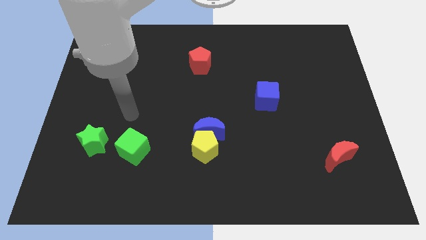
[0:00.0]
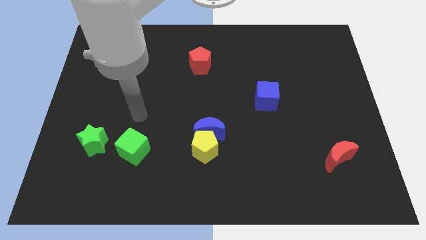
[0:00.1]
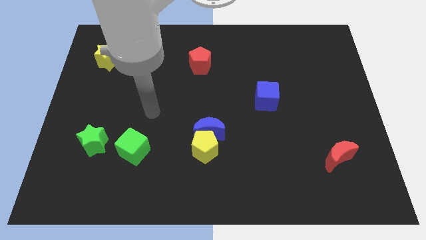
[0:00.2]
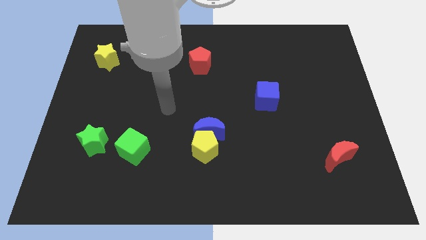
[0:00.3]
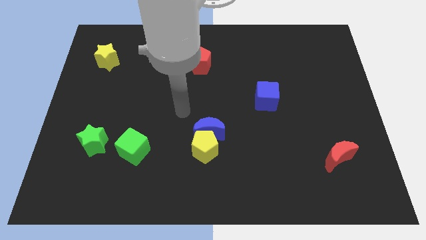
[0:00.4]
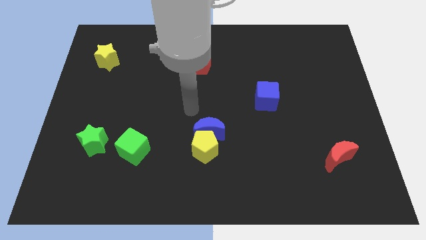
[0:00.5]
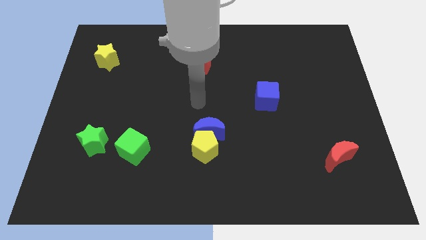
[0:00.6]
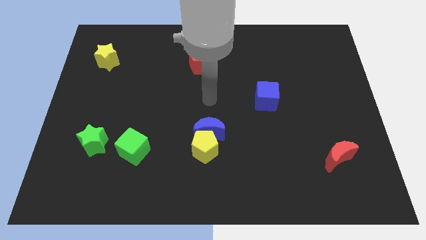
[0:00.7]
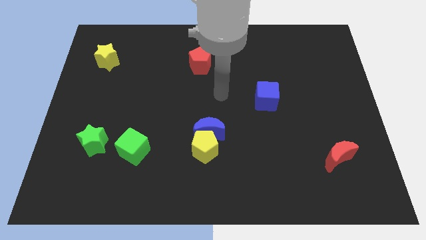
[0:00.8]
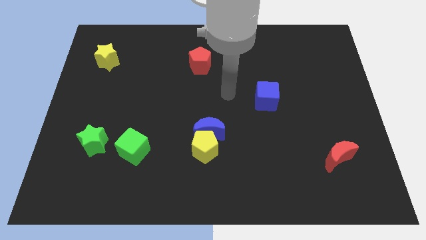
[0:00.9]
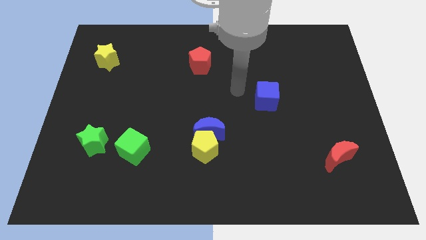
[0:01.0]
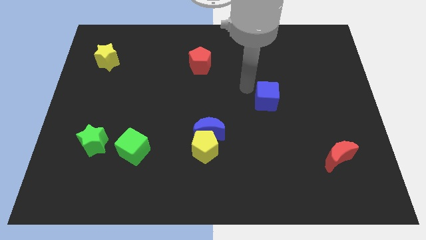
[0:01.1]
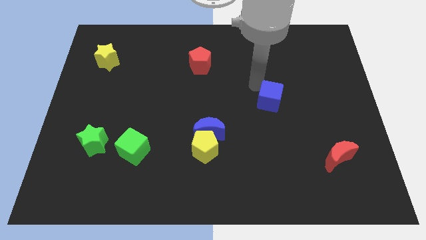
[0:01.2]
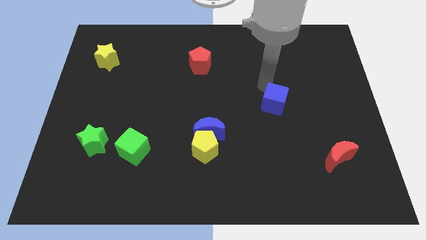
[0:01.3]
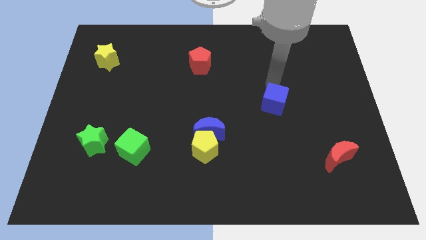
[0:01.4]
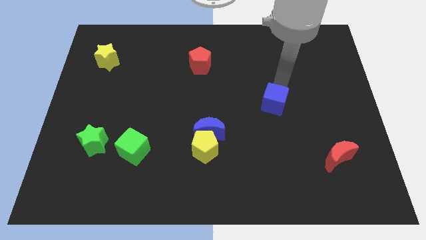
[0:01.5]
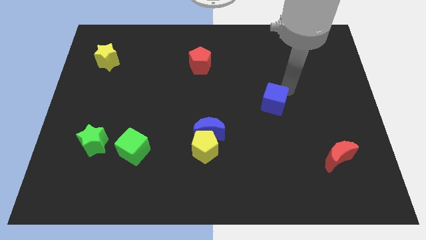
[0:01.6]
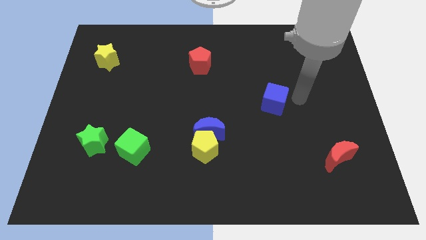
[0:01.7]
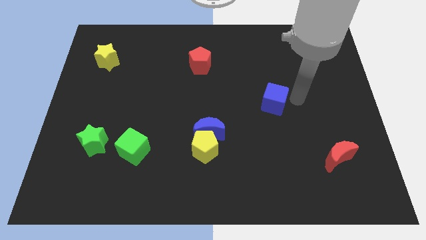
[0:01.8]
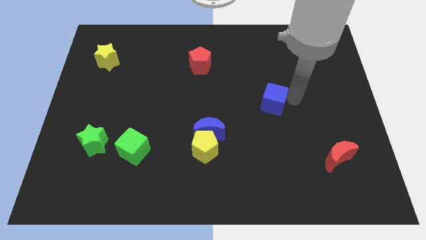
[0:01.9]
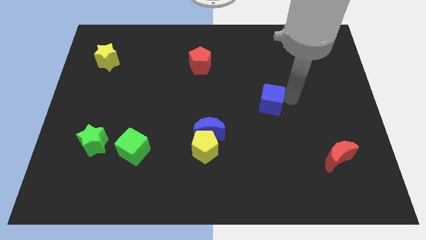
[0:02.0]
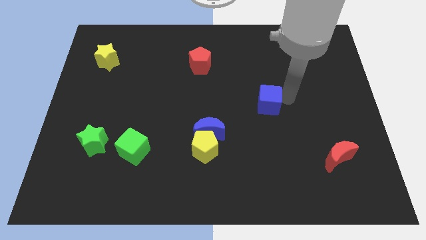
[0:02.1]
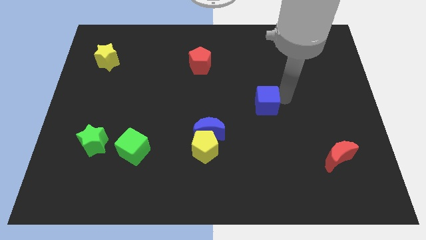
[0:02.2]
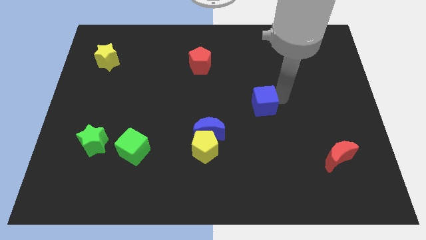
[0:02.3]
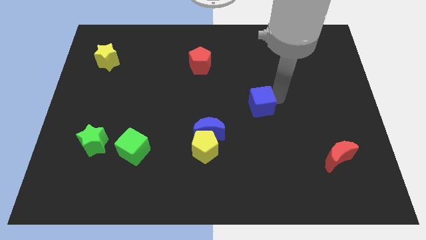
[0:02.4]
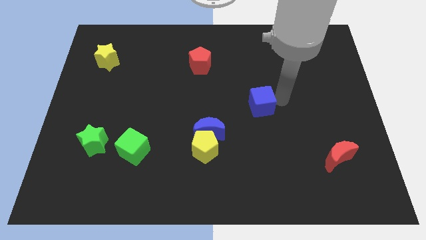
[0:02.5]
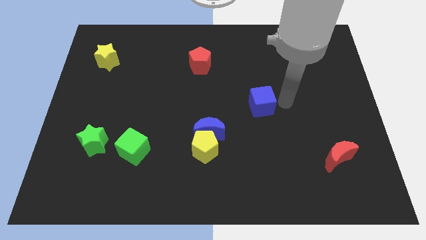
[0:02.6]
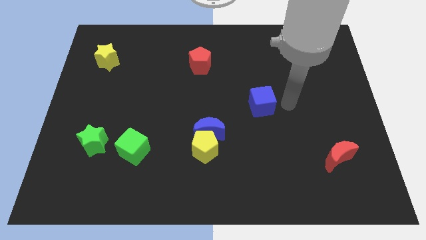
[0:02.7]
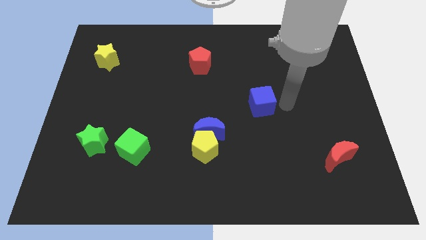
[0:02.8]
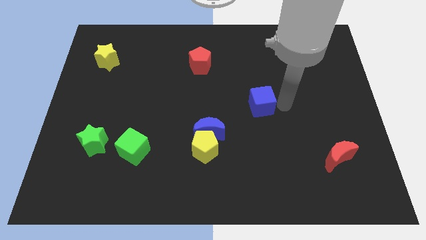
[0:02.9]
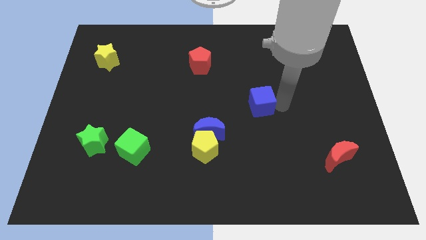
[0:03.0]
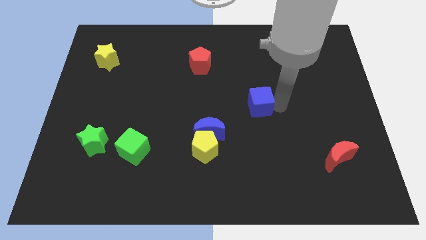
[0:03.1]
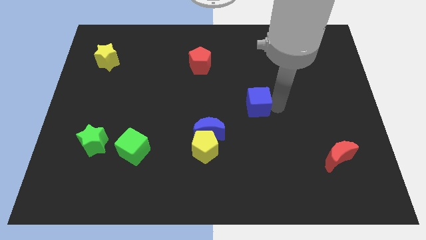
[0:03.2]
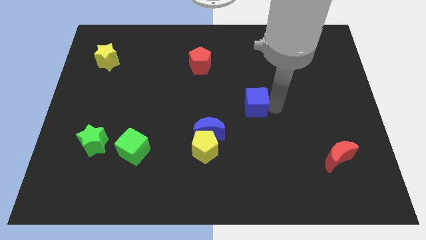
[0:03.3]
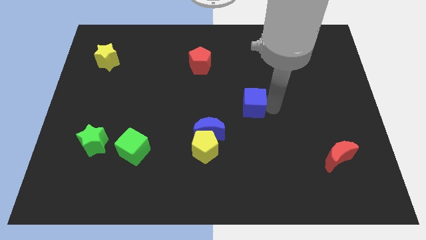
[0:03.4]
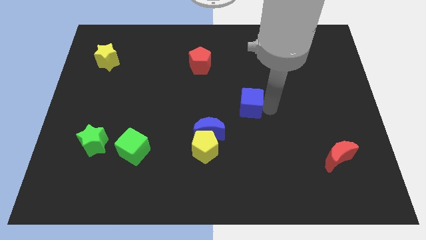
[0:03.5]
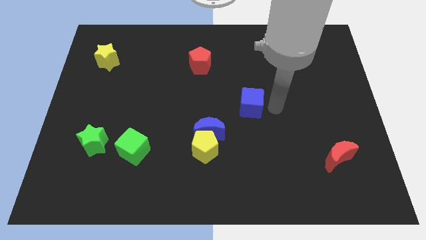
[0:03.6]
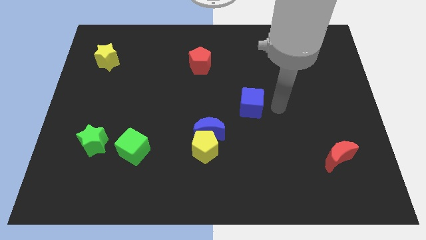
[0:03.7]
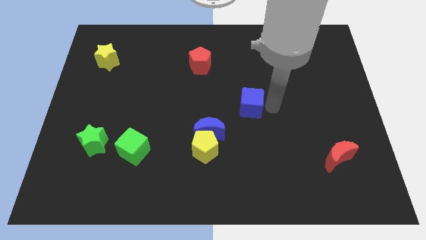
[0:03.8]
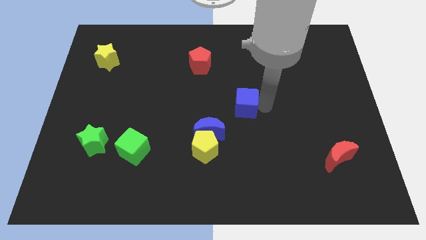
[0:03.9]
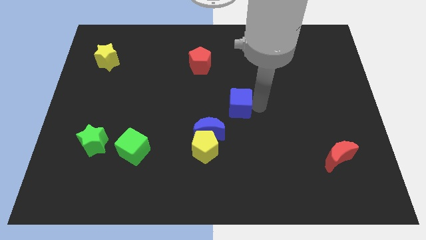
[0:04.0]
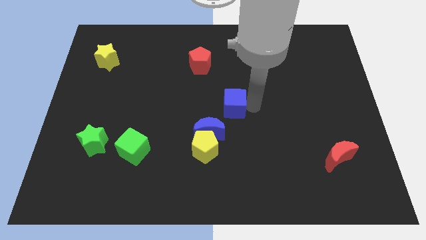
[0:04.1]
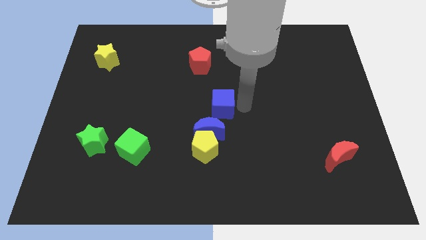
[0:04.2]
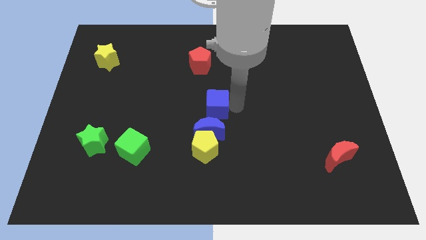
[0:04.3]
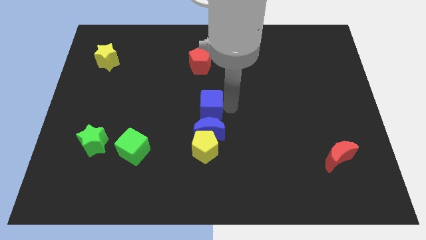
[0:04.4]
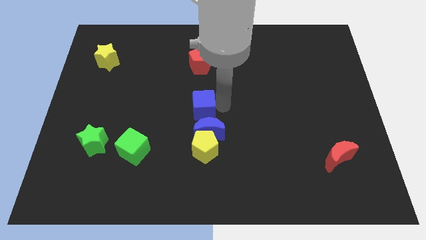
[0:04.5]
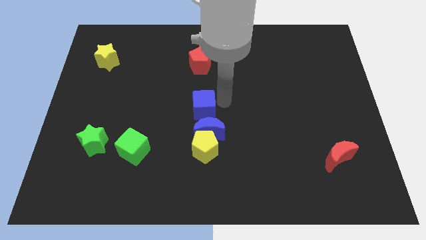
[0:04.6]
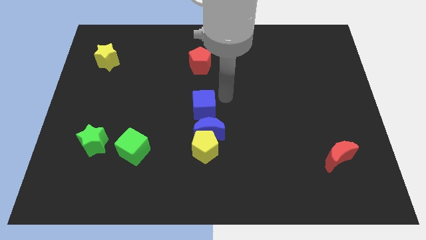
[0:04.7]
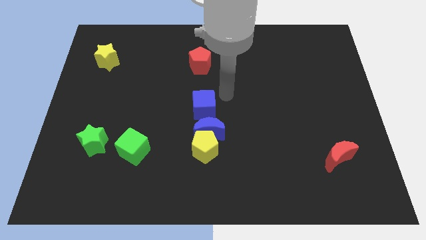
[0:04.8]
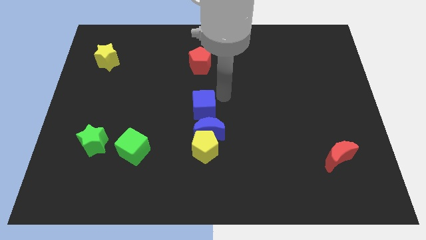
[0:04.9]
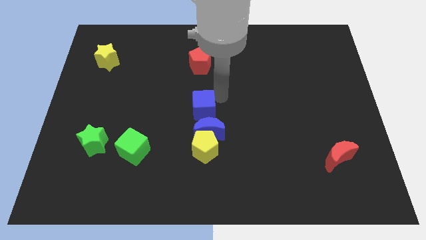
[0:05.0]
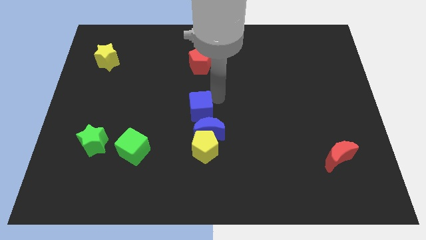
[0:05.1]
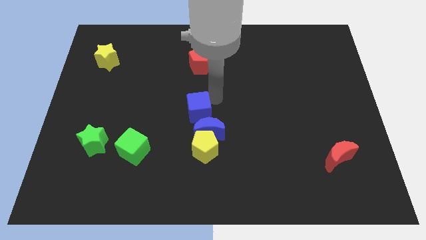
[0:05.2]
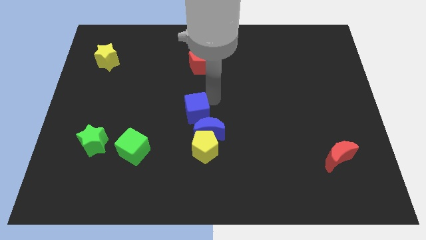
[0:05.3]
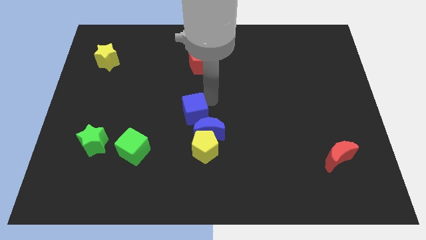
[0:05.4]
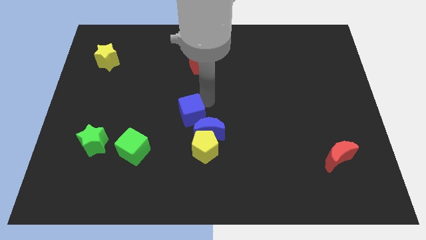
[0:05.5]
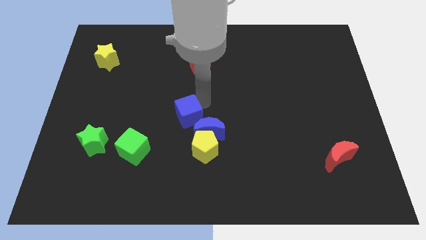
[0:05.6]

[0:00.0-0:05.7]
put the blue cube to the left side of the blue moon
